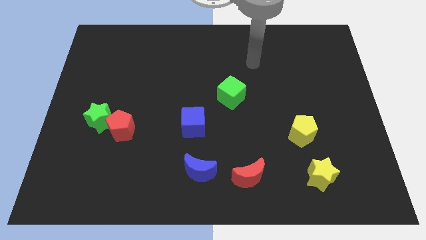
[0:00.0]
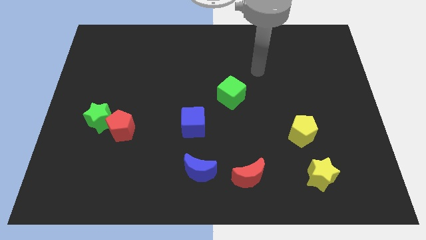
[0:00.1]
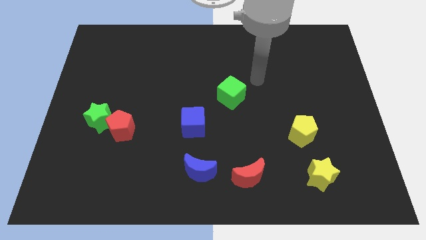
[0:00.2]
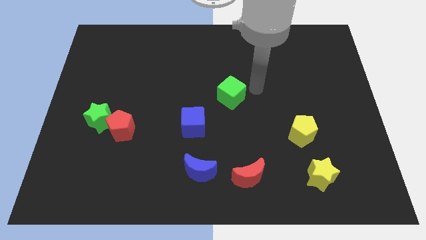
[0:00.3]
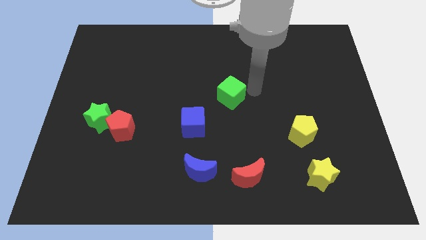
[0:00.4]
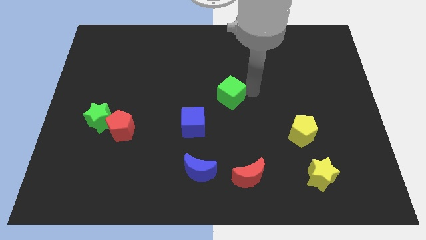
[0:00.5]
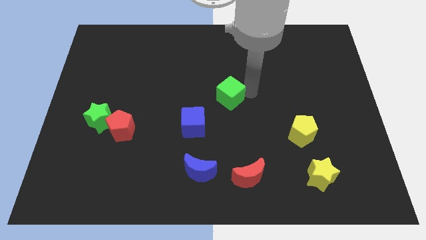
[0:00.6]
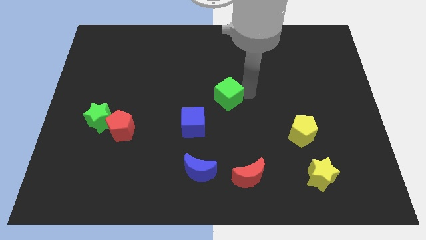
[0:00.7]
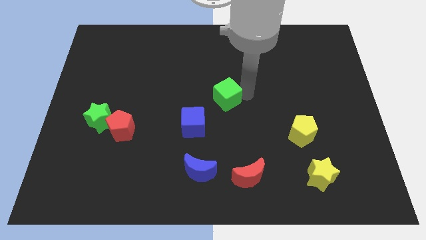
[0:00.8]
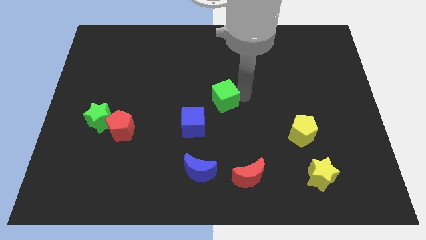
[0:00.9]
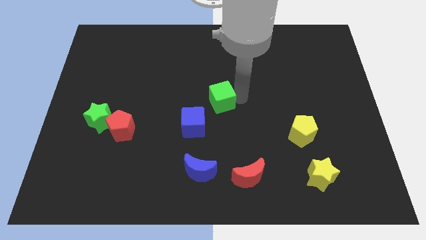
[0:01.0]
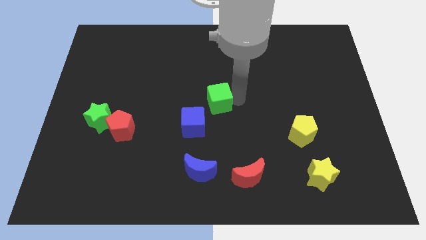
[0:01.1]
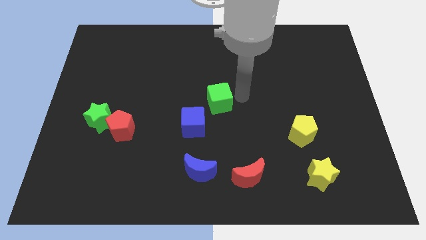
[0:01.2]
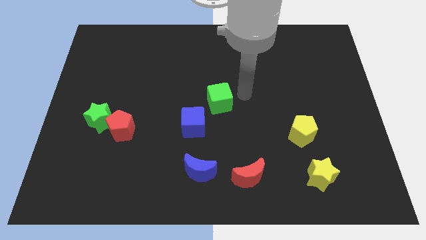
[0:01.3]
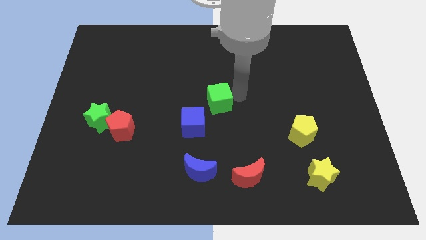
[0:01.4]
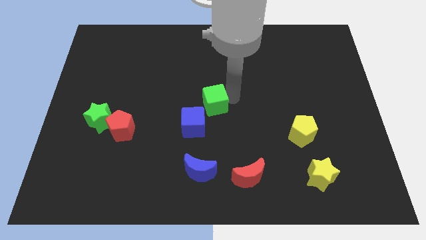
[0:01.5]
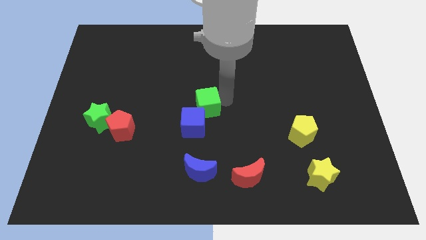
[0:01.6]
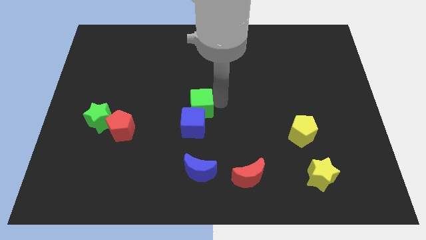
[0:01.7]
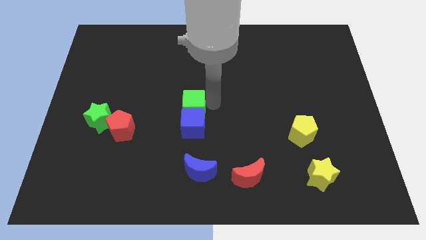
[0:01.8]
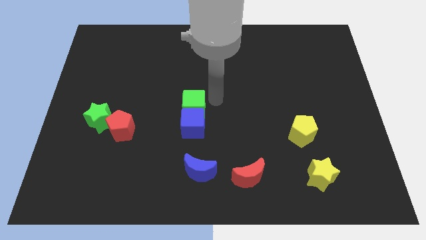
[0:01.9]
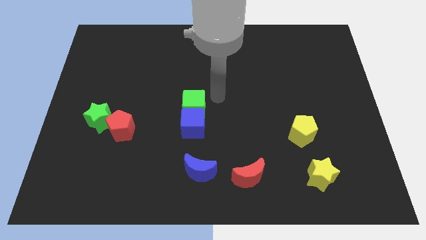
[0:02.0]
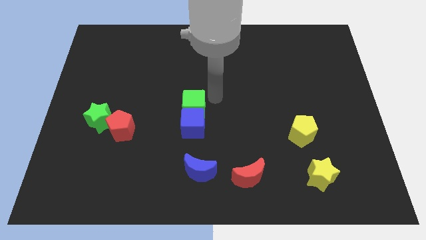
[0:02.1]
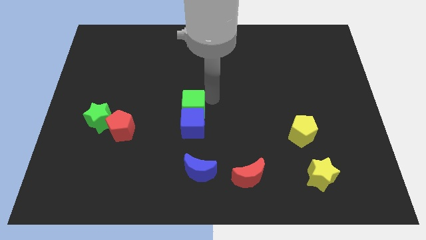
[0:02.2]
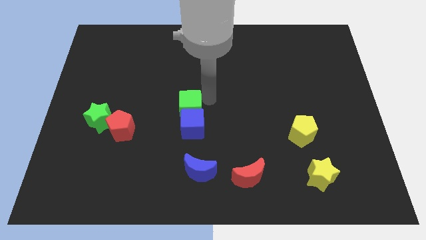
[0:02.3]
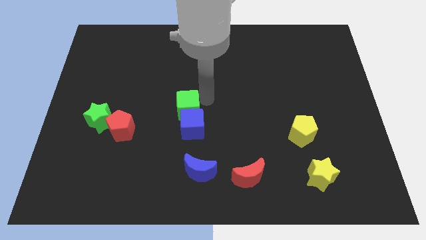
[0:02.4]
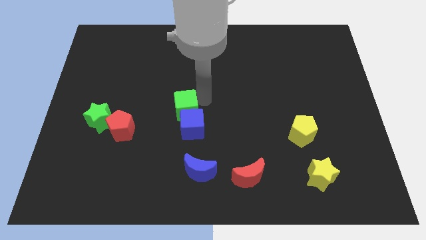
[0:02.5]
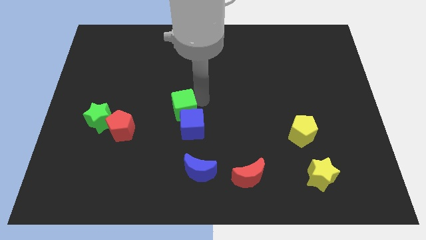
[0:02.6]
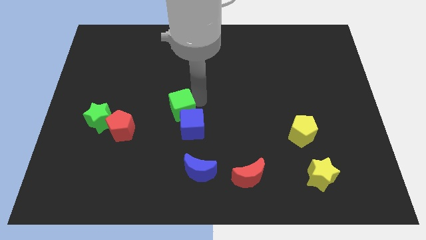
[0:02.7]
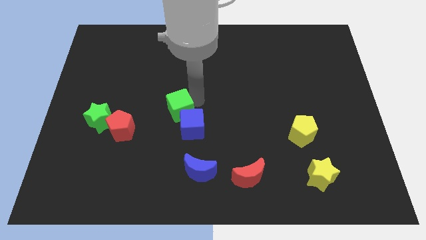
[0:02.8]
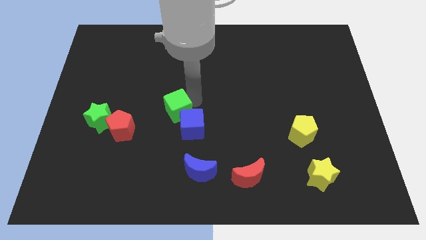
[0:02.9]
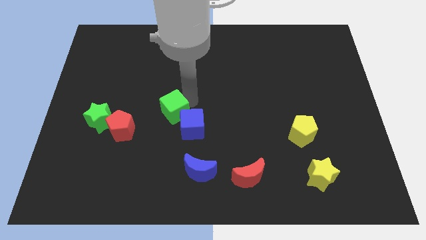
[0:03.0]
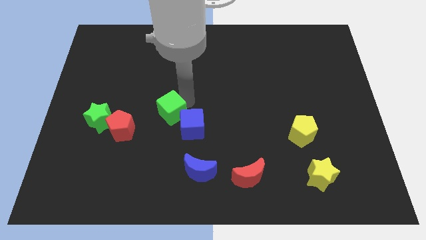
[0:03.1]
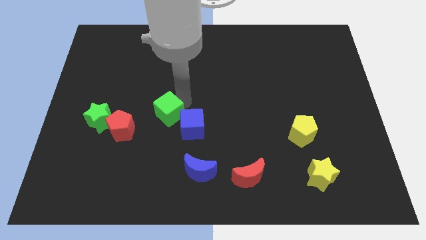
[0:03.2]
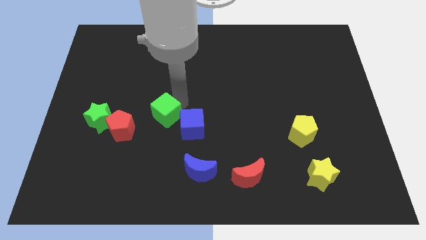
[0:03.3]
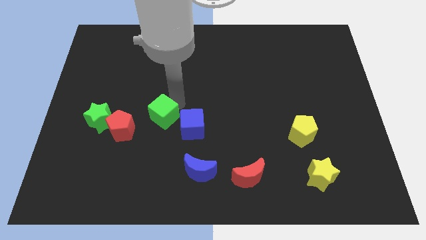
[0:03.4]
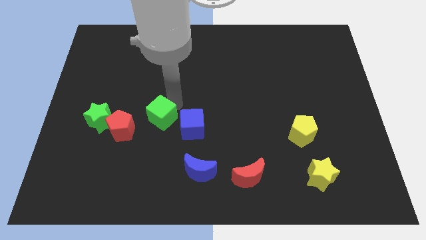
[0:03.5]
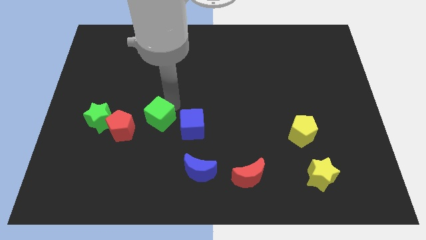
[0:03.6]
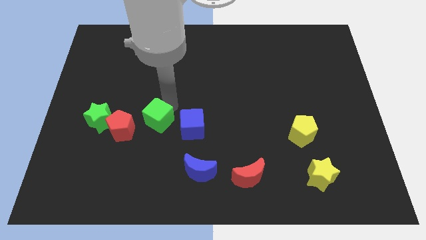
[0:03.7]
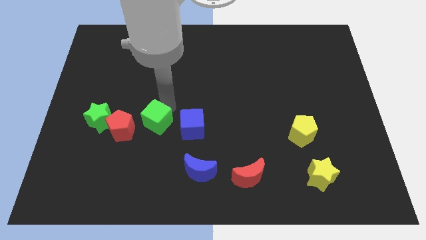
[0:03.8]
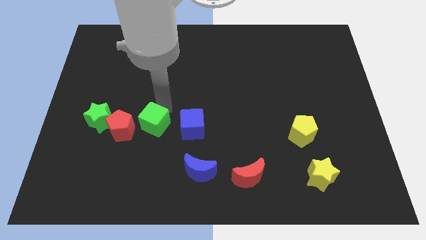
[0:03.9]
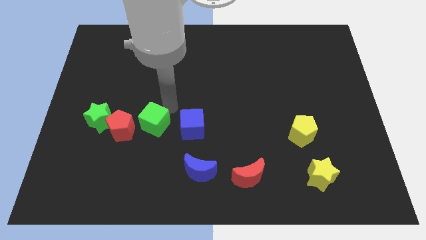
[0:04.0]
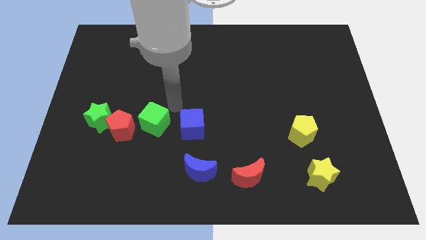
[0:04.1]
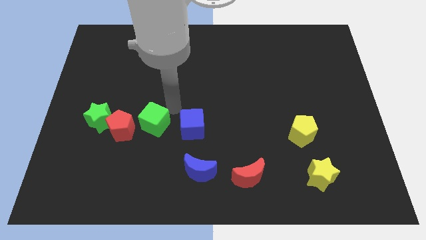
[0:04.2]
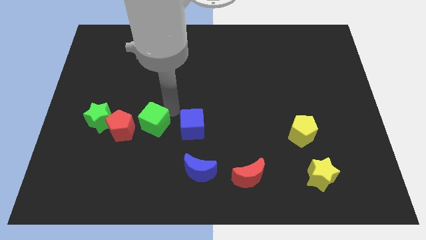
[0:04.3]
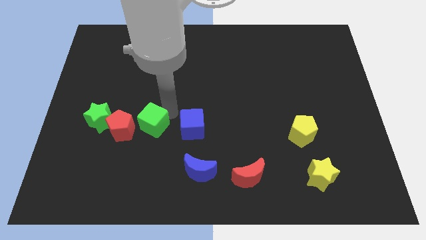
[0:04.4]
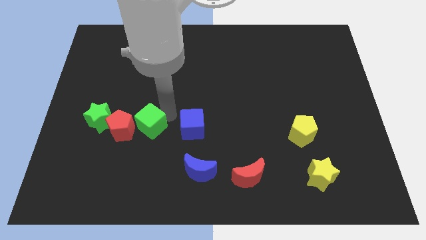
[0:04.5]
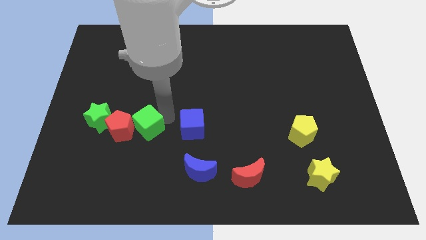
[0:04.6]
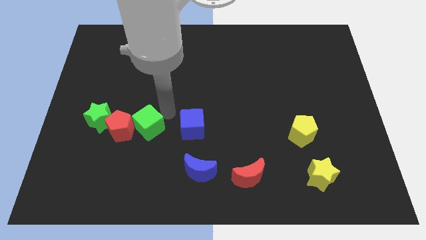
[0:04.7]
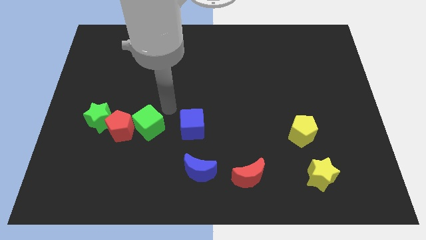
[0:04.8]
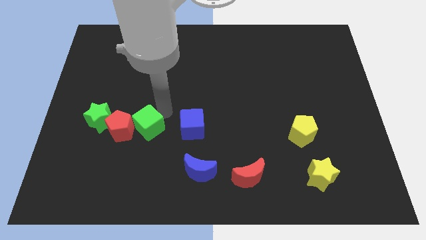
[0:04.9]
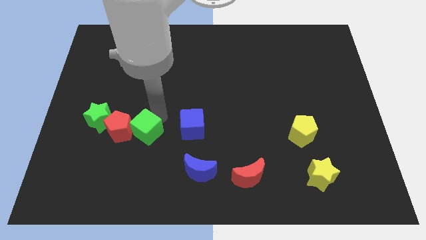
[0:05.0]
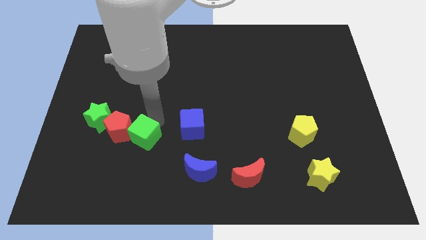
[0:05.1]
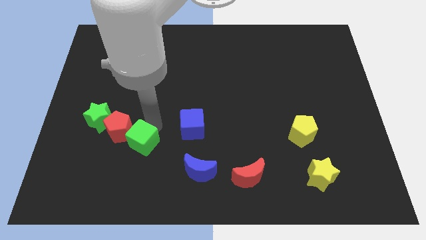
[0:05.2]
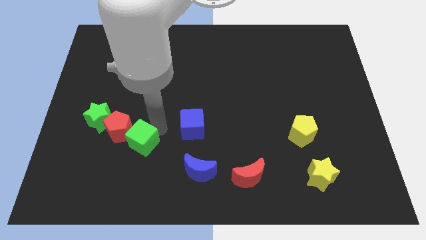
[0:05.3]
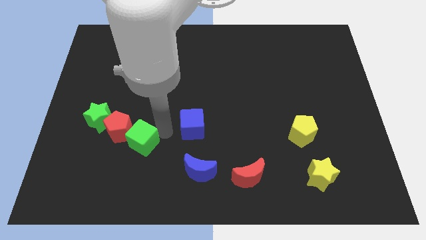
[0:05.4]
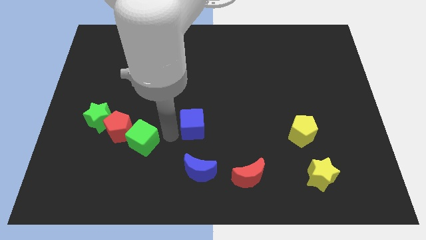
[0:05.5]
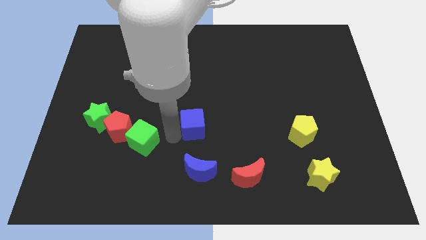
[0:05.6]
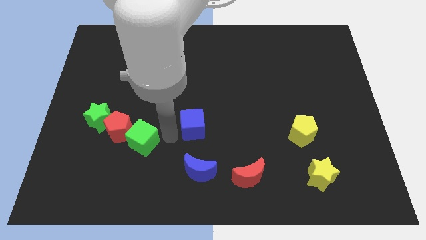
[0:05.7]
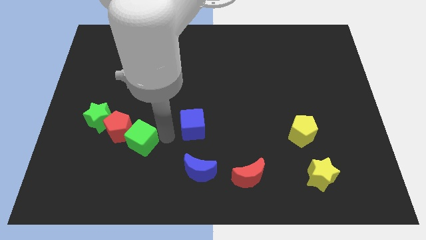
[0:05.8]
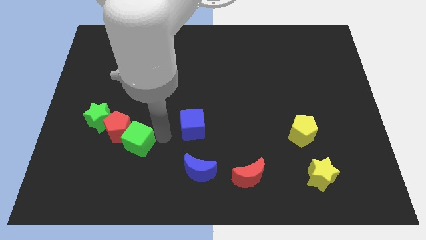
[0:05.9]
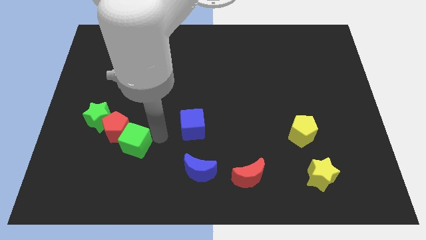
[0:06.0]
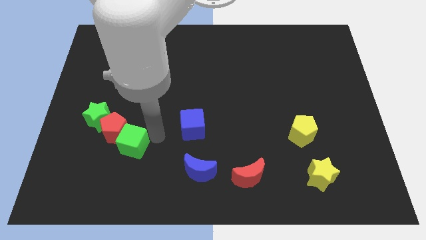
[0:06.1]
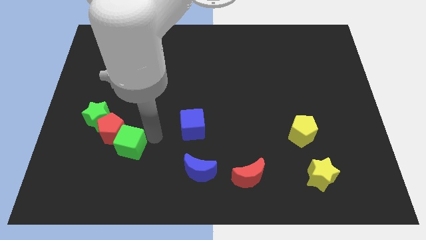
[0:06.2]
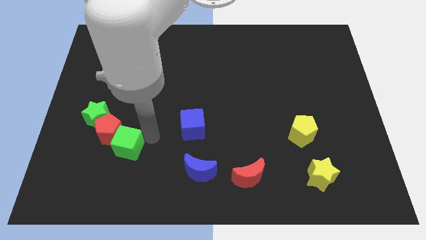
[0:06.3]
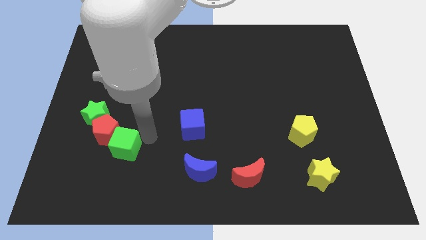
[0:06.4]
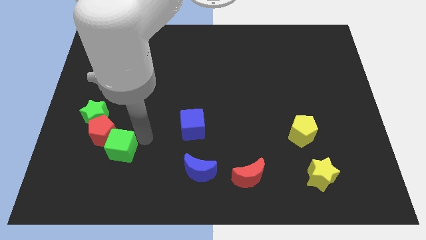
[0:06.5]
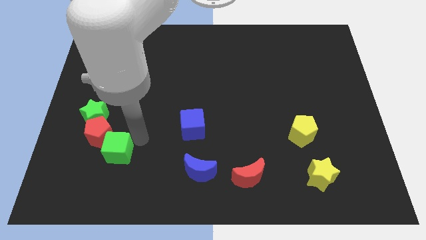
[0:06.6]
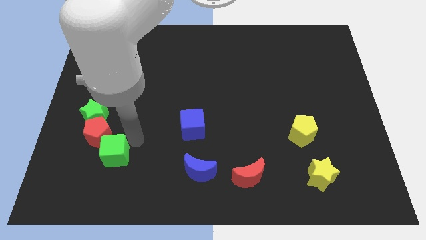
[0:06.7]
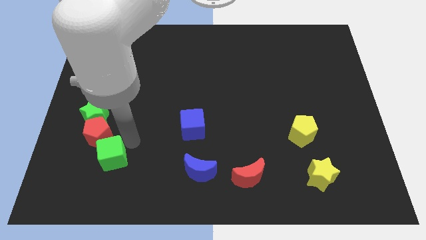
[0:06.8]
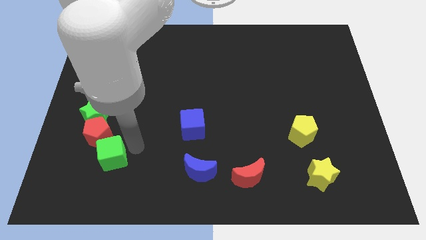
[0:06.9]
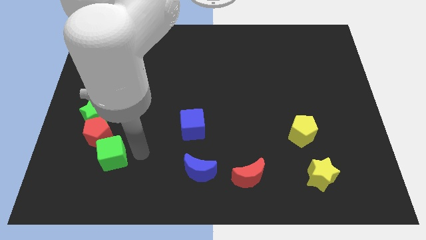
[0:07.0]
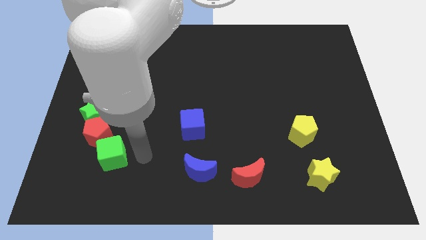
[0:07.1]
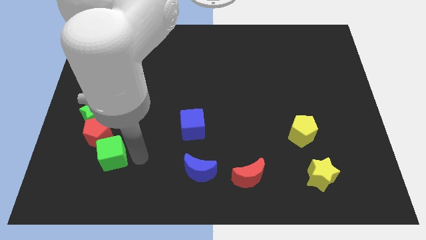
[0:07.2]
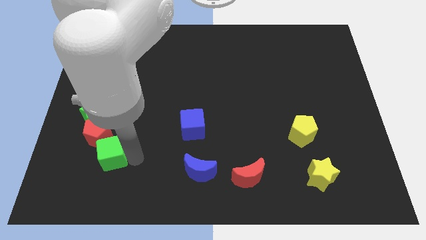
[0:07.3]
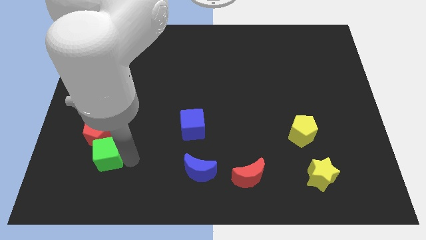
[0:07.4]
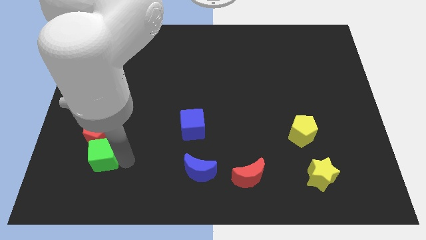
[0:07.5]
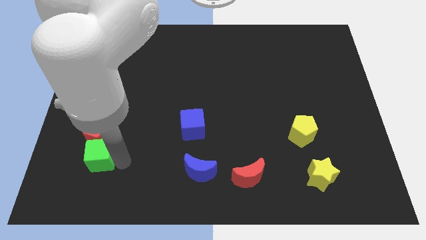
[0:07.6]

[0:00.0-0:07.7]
push the green cube to the bottom left of the red pentagon
